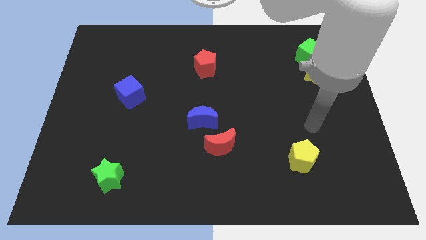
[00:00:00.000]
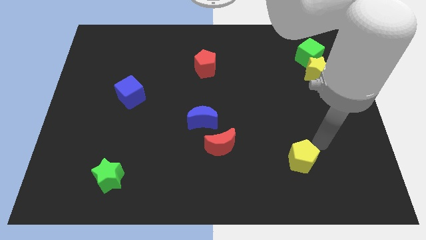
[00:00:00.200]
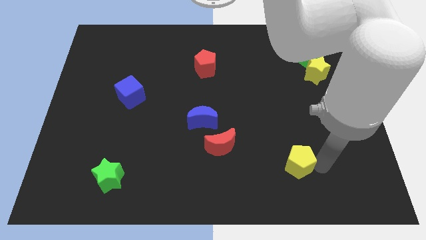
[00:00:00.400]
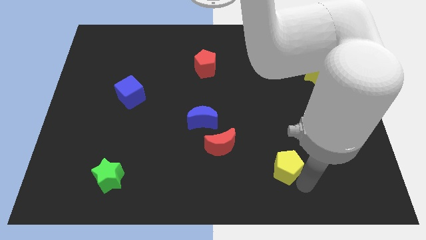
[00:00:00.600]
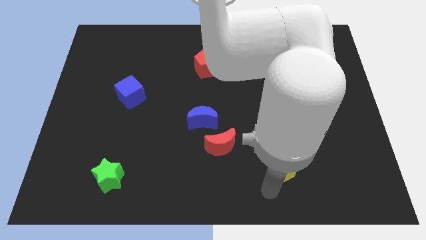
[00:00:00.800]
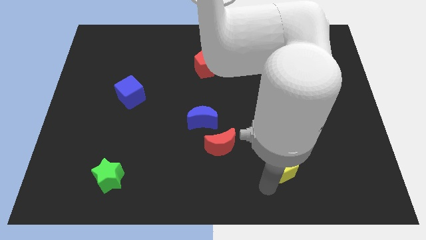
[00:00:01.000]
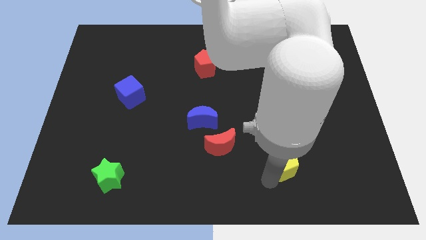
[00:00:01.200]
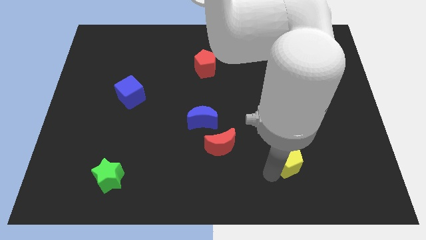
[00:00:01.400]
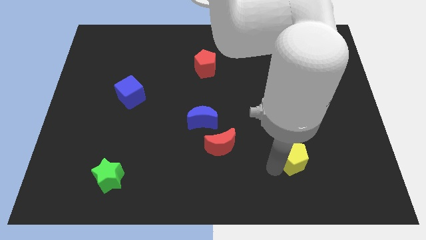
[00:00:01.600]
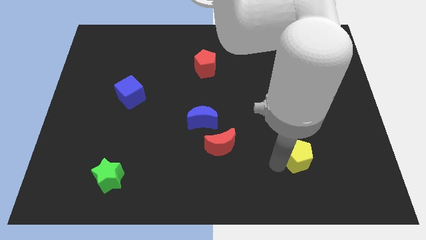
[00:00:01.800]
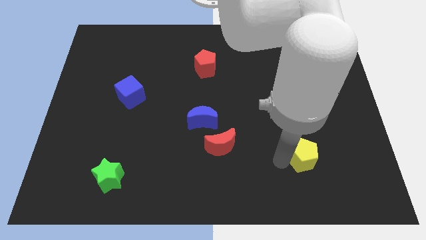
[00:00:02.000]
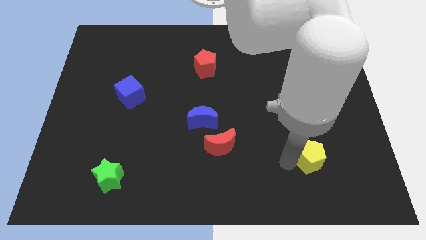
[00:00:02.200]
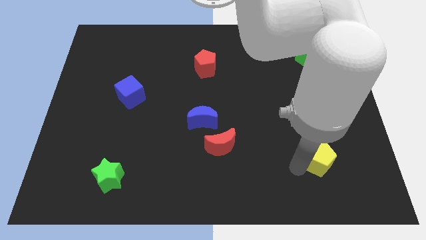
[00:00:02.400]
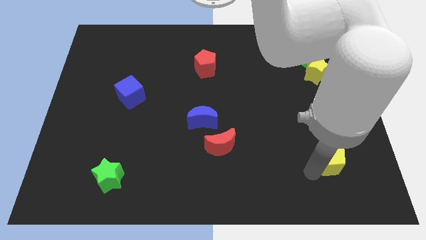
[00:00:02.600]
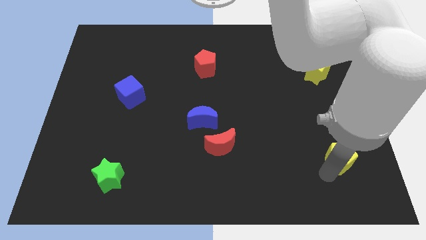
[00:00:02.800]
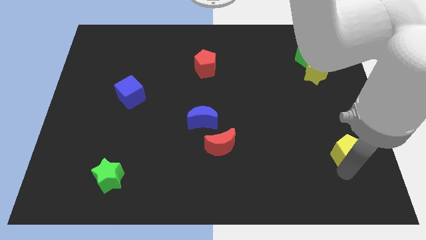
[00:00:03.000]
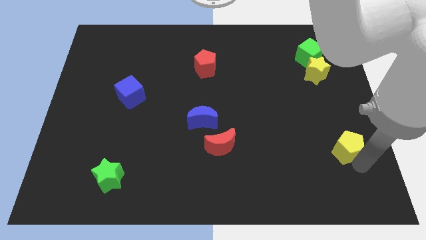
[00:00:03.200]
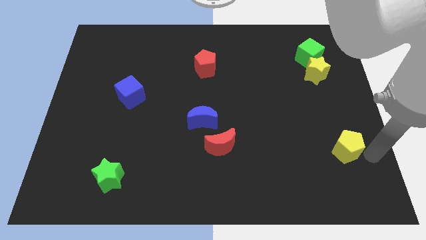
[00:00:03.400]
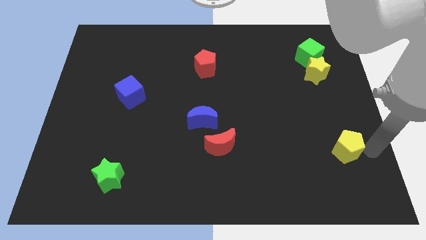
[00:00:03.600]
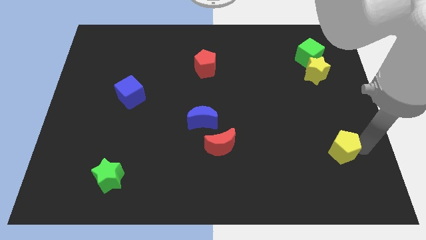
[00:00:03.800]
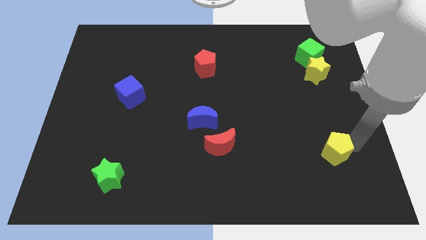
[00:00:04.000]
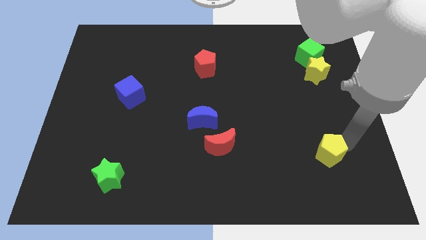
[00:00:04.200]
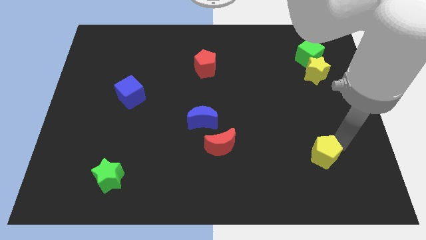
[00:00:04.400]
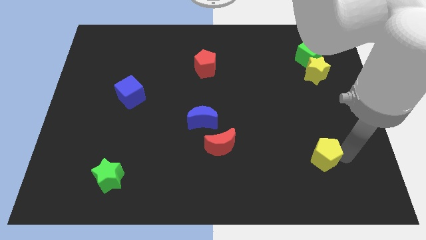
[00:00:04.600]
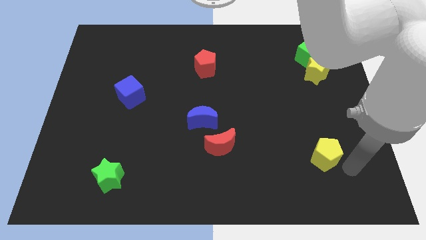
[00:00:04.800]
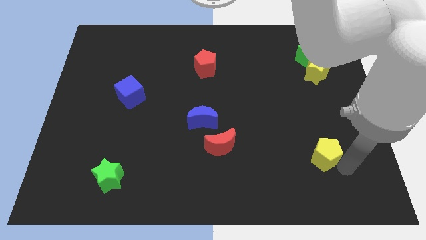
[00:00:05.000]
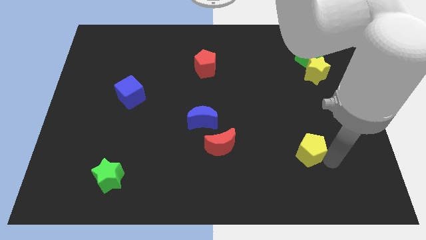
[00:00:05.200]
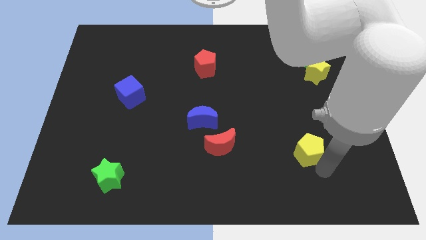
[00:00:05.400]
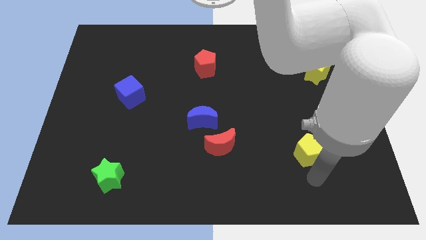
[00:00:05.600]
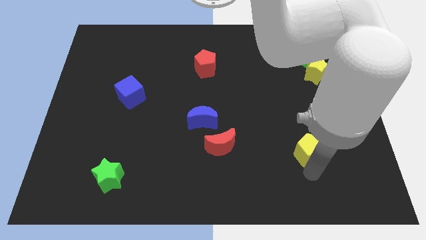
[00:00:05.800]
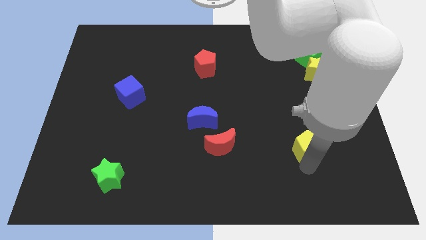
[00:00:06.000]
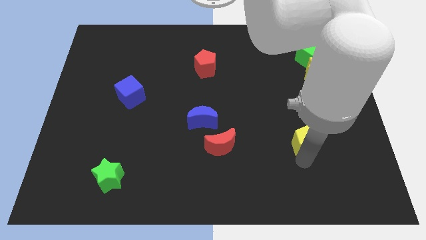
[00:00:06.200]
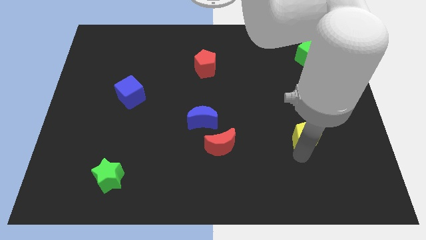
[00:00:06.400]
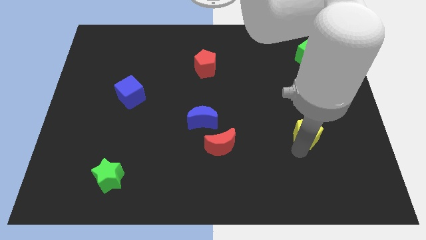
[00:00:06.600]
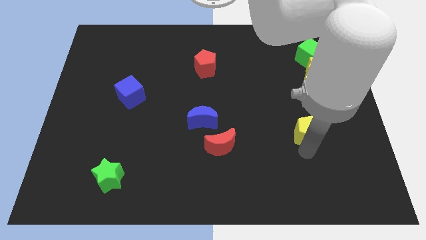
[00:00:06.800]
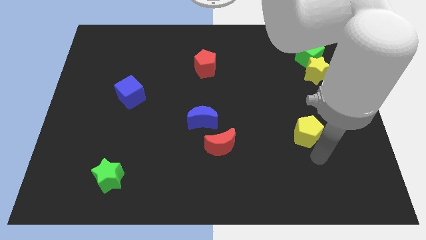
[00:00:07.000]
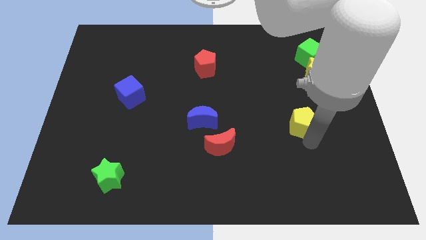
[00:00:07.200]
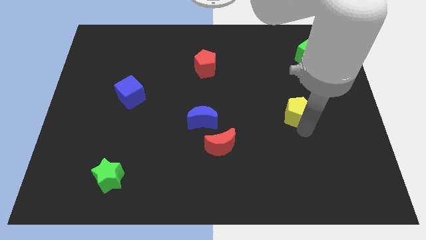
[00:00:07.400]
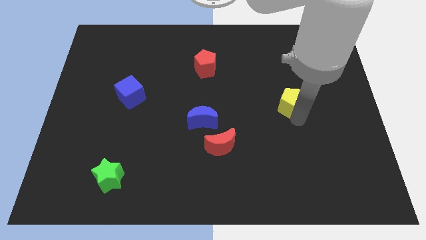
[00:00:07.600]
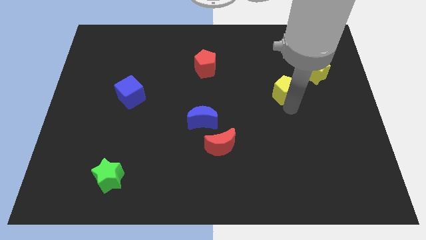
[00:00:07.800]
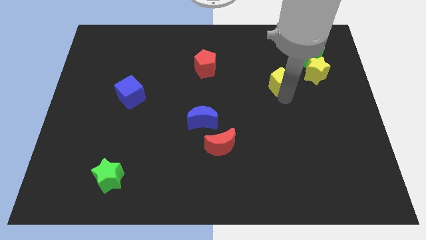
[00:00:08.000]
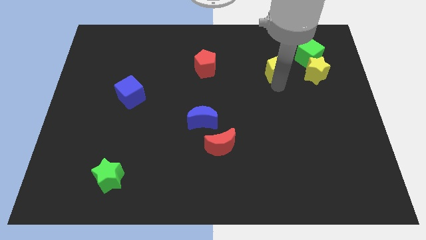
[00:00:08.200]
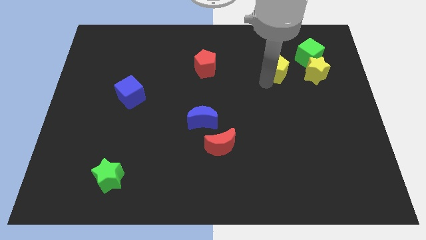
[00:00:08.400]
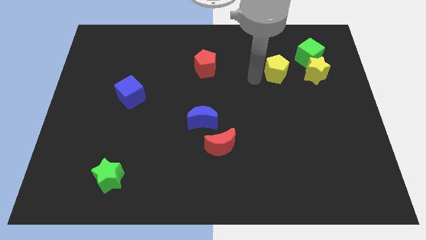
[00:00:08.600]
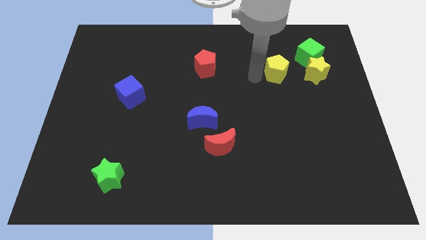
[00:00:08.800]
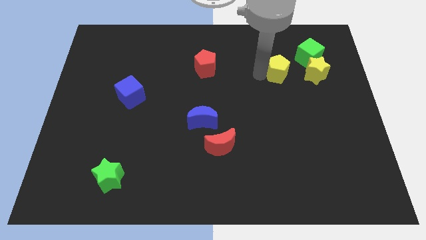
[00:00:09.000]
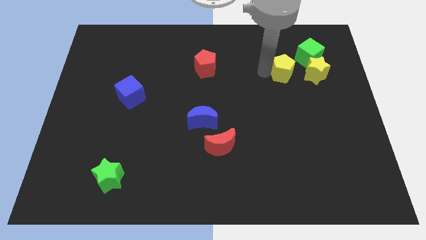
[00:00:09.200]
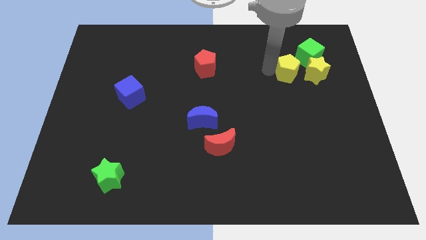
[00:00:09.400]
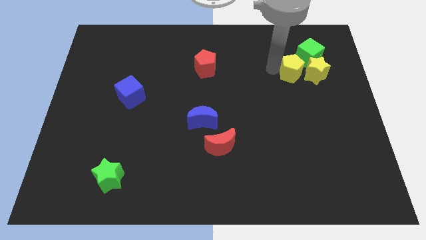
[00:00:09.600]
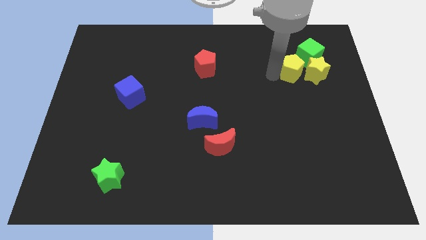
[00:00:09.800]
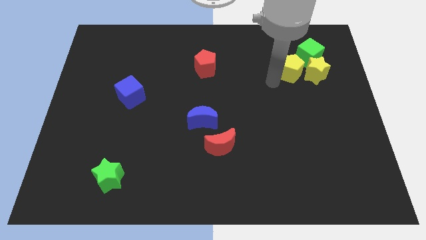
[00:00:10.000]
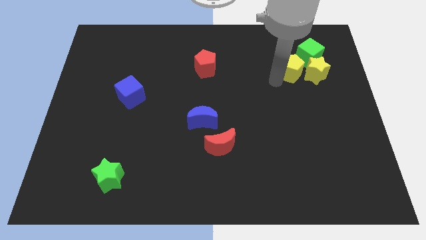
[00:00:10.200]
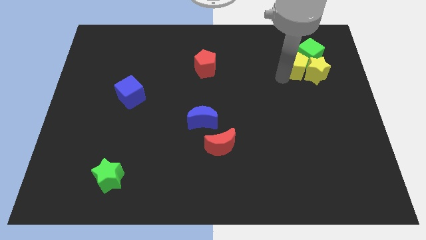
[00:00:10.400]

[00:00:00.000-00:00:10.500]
put the yellow pentagon close to the green cube
